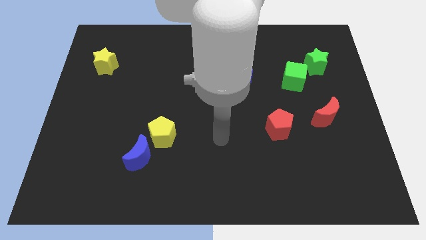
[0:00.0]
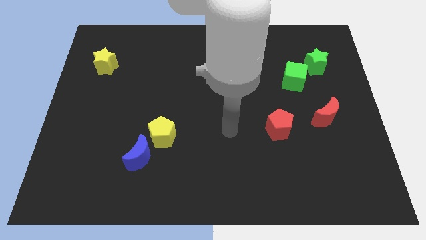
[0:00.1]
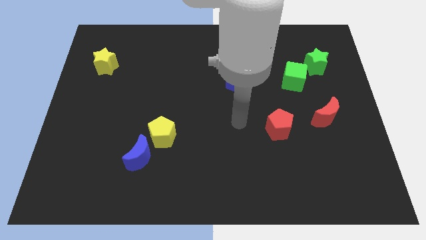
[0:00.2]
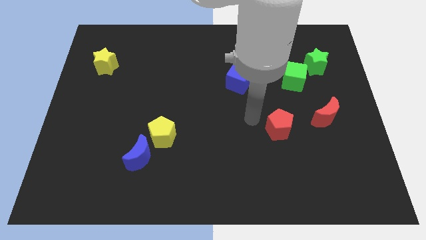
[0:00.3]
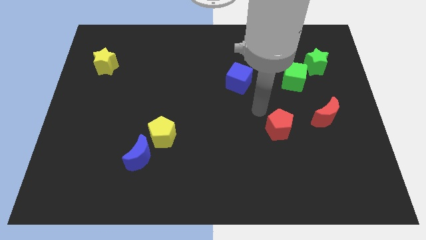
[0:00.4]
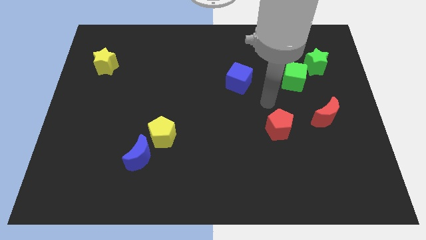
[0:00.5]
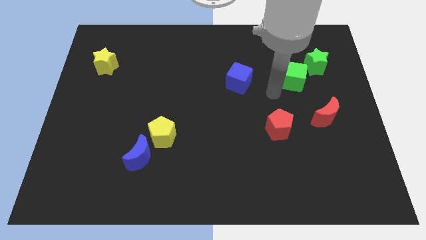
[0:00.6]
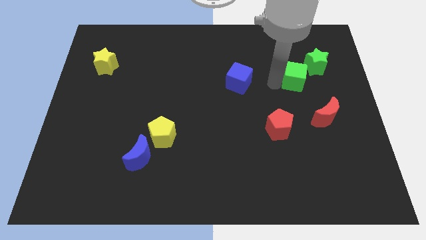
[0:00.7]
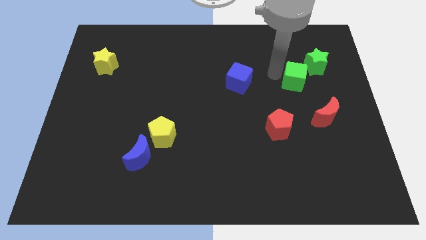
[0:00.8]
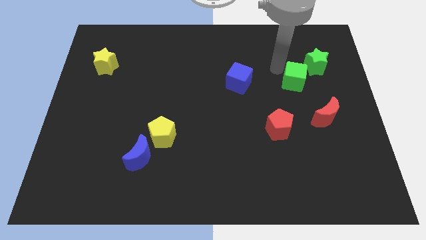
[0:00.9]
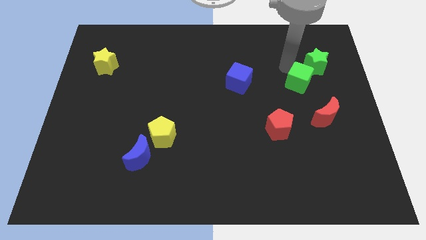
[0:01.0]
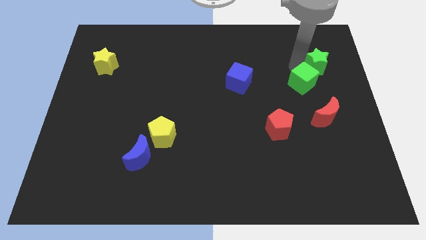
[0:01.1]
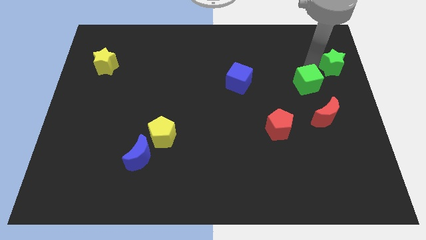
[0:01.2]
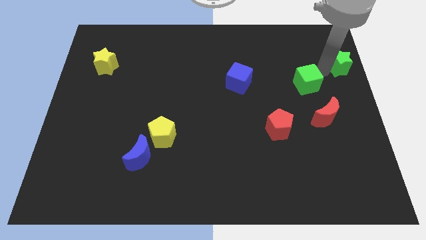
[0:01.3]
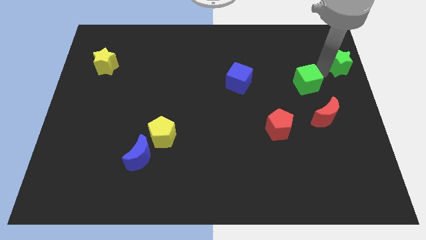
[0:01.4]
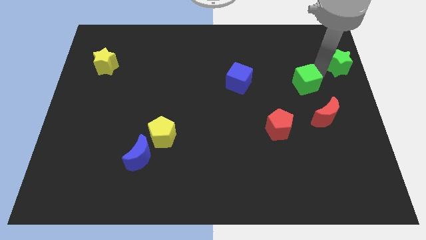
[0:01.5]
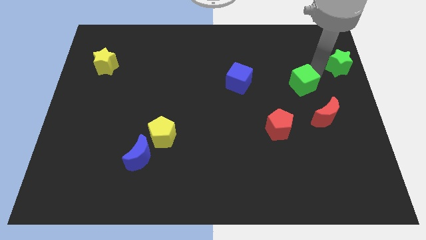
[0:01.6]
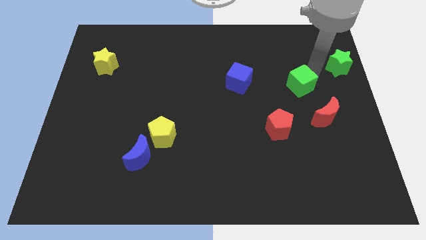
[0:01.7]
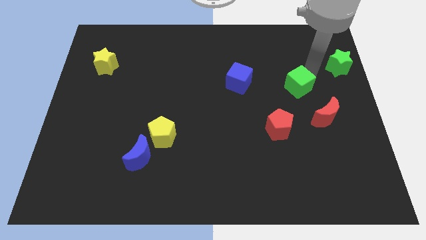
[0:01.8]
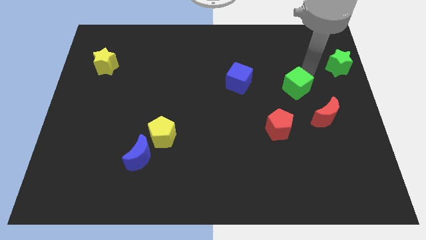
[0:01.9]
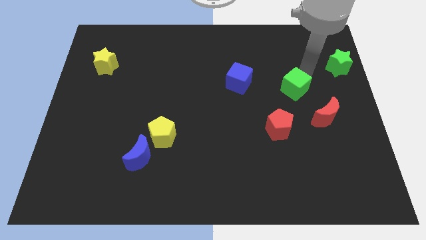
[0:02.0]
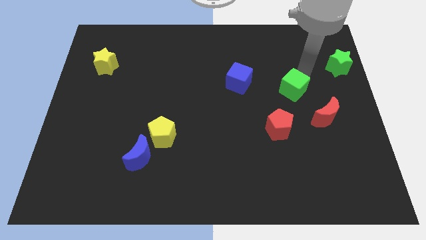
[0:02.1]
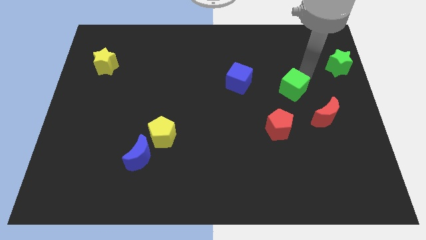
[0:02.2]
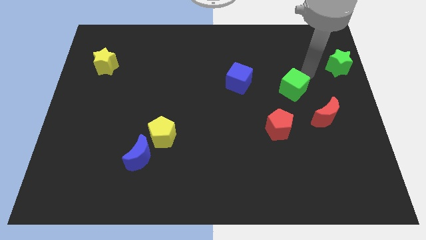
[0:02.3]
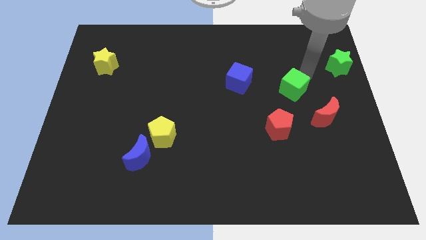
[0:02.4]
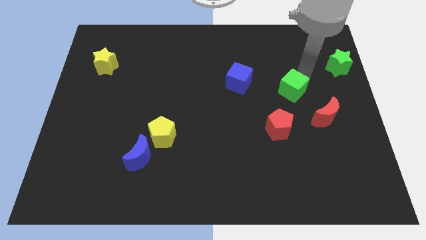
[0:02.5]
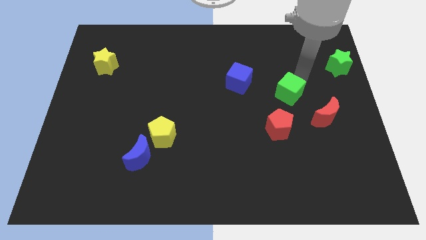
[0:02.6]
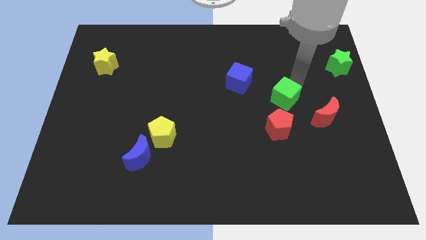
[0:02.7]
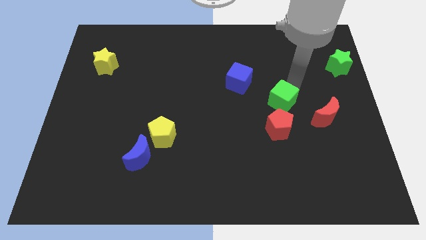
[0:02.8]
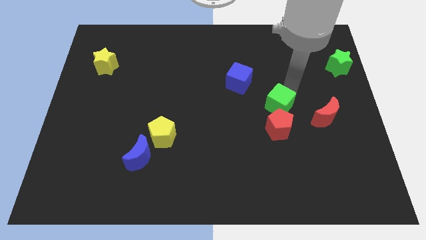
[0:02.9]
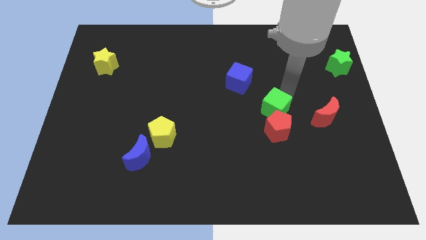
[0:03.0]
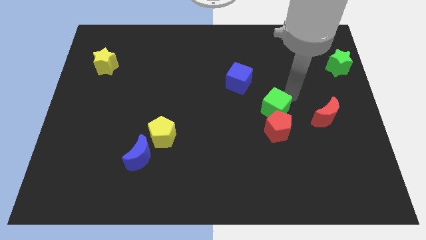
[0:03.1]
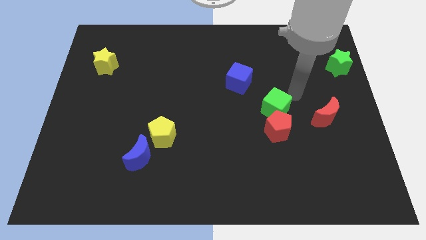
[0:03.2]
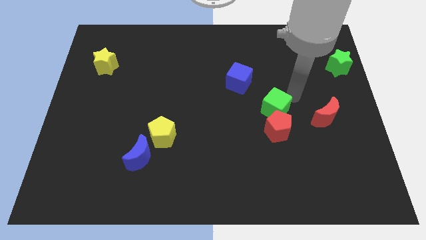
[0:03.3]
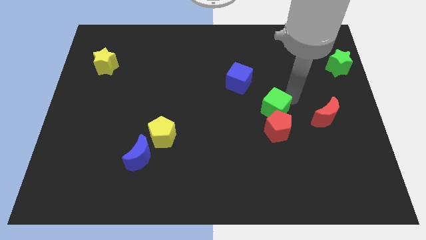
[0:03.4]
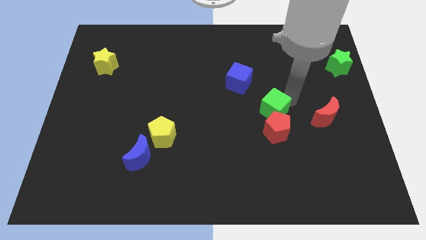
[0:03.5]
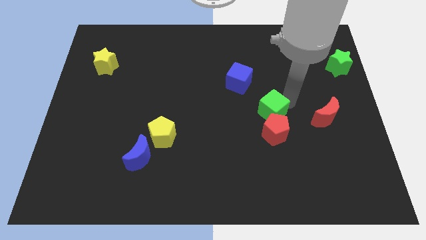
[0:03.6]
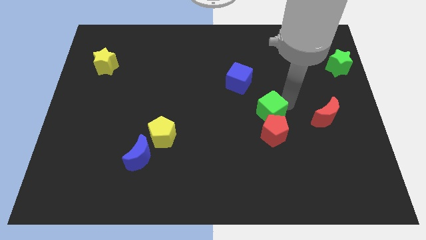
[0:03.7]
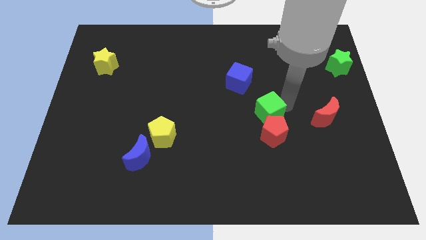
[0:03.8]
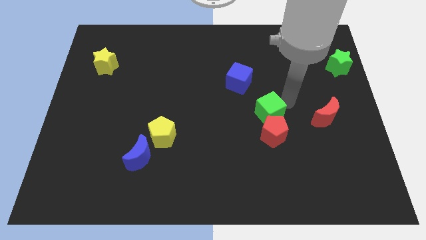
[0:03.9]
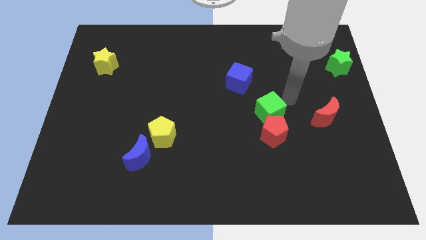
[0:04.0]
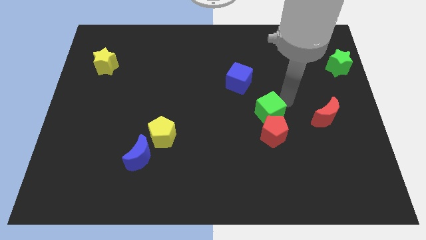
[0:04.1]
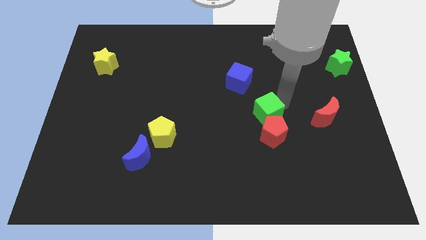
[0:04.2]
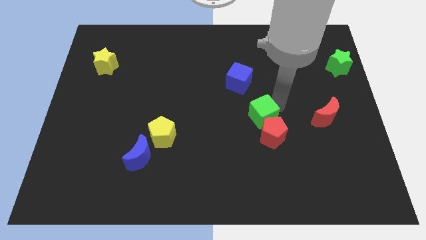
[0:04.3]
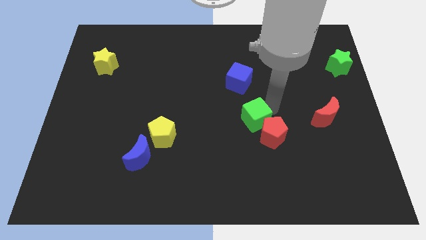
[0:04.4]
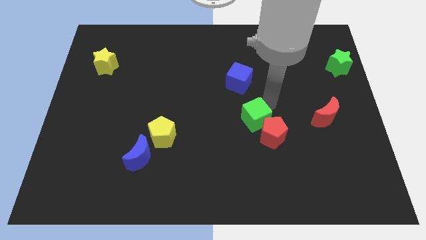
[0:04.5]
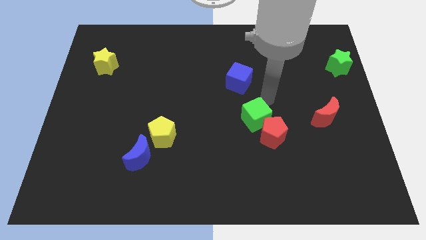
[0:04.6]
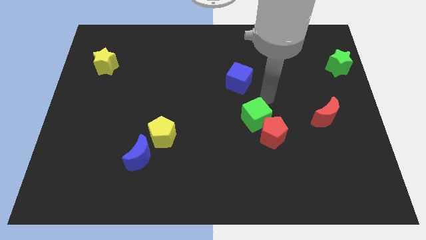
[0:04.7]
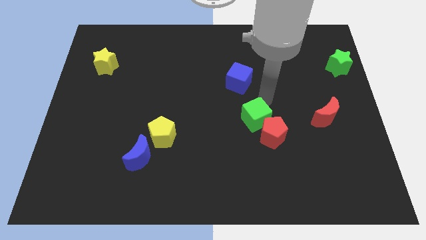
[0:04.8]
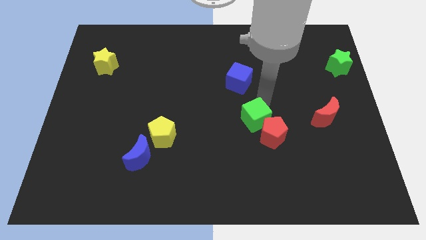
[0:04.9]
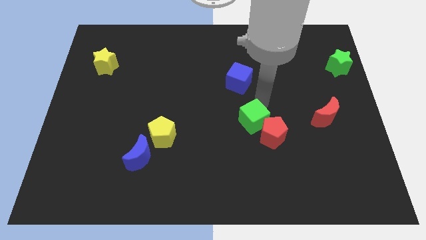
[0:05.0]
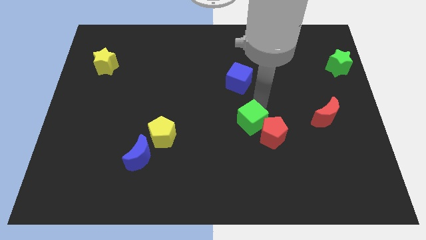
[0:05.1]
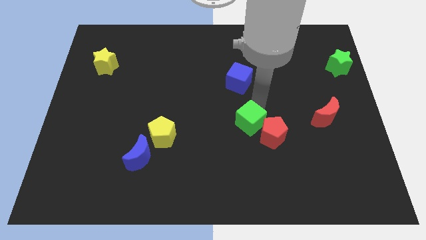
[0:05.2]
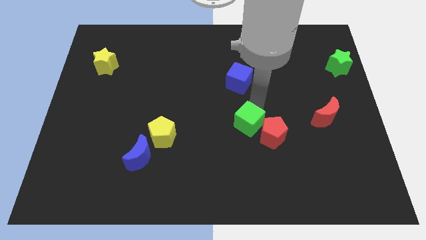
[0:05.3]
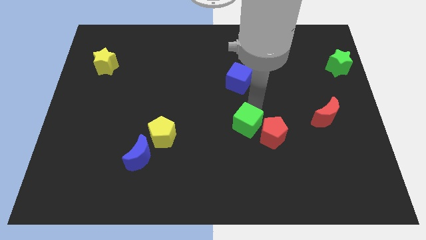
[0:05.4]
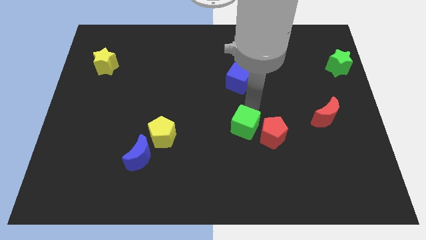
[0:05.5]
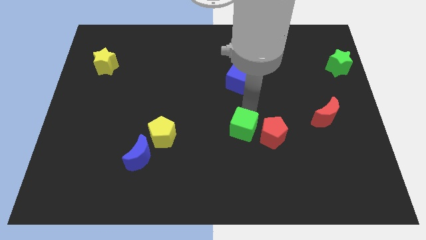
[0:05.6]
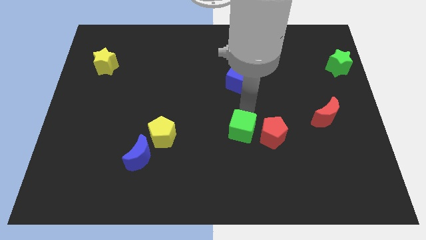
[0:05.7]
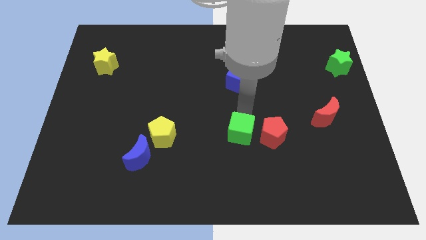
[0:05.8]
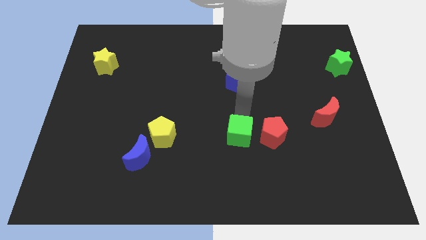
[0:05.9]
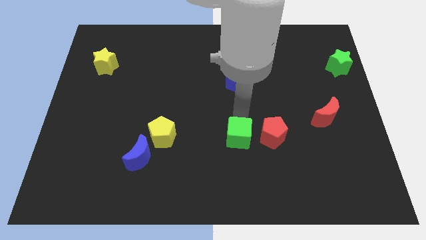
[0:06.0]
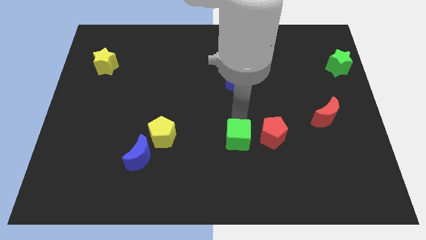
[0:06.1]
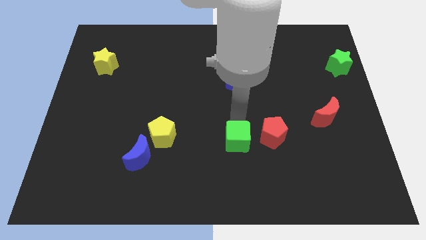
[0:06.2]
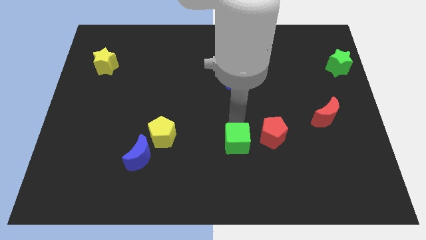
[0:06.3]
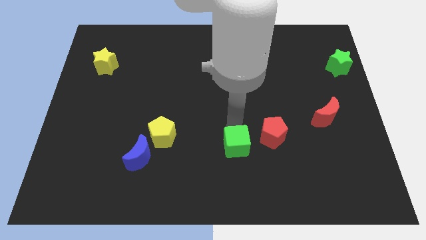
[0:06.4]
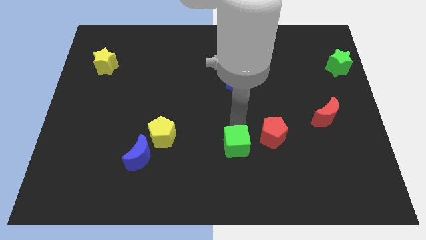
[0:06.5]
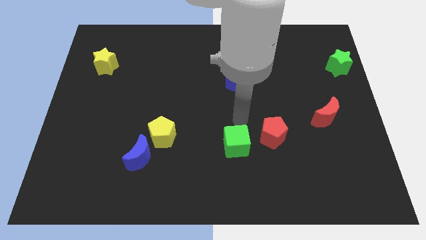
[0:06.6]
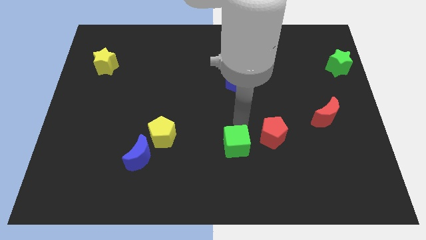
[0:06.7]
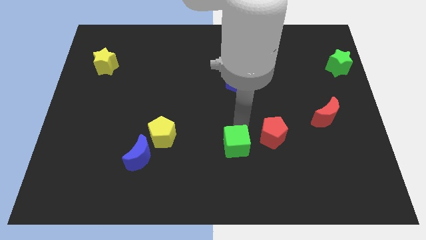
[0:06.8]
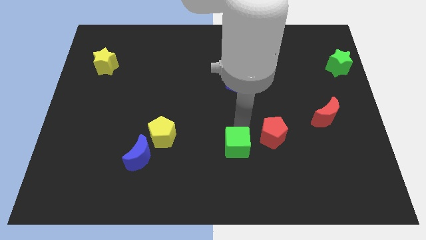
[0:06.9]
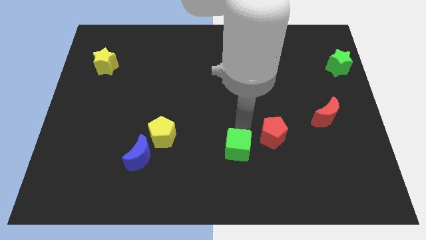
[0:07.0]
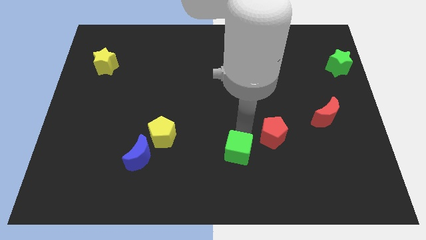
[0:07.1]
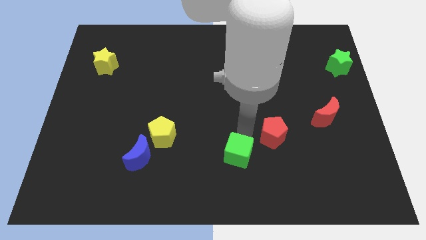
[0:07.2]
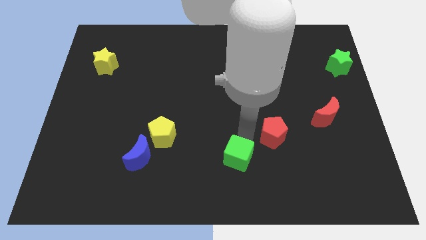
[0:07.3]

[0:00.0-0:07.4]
push the green cube to the bottom side
